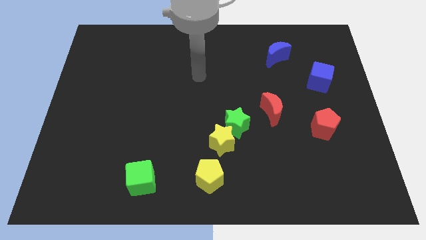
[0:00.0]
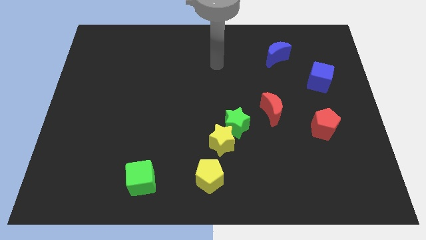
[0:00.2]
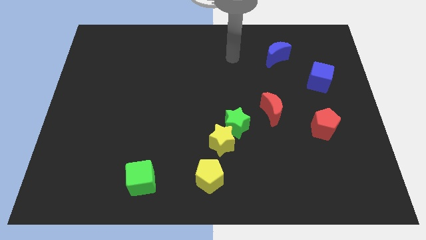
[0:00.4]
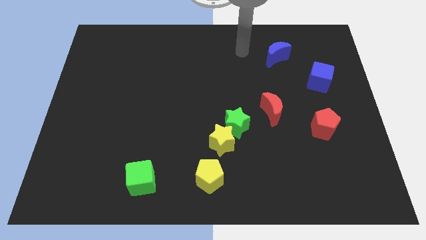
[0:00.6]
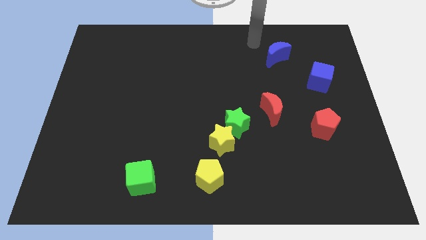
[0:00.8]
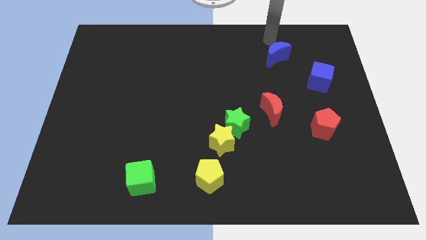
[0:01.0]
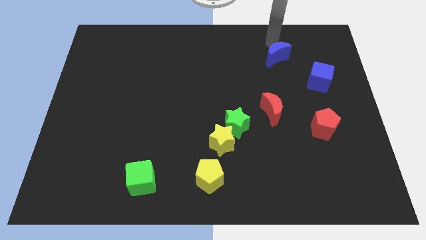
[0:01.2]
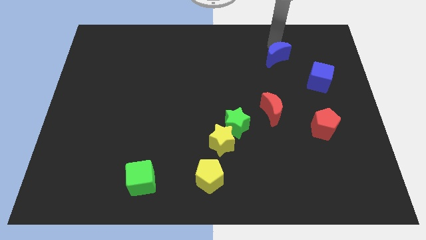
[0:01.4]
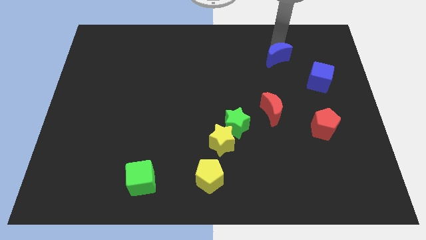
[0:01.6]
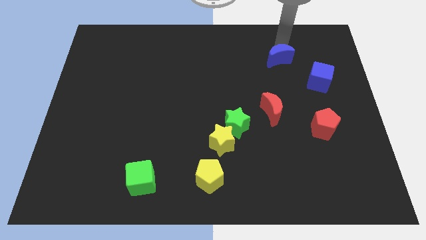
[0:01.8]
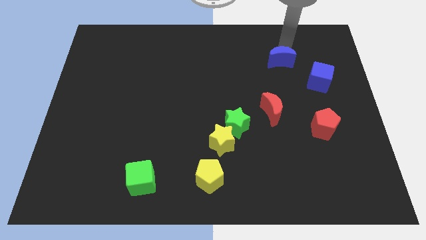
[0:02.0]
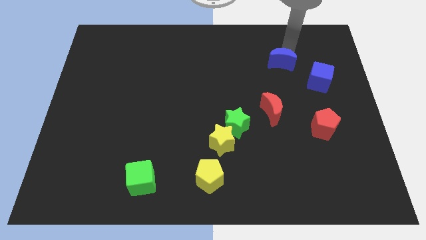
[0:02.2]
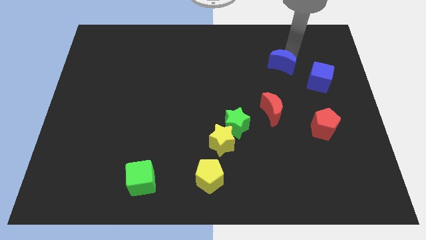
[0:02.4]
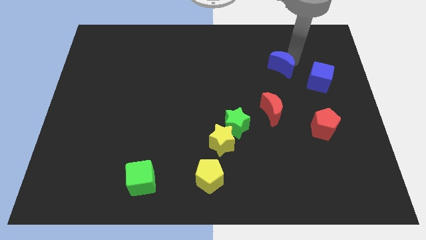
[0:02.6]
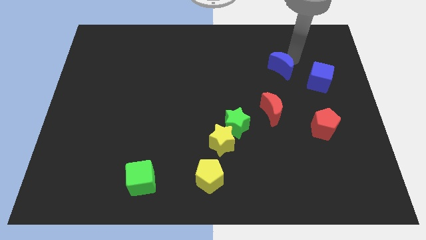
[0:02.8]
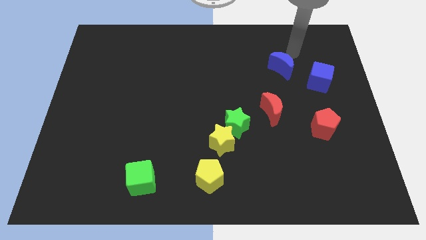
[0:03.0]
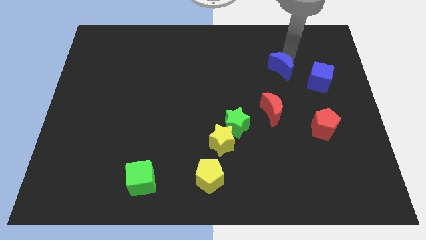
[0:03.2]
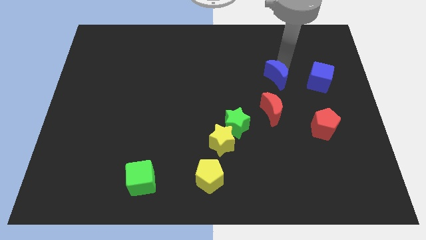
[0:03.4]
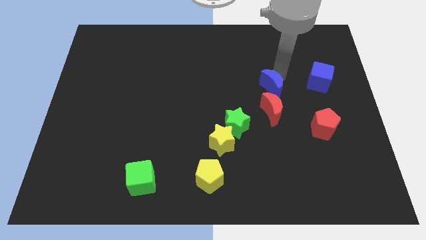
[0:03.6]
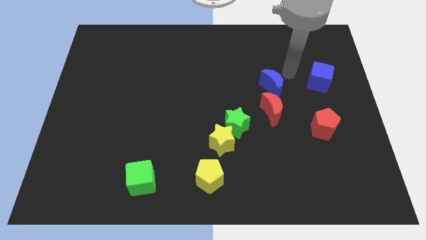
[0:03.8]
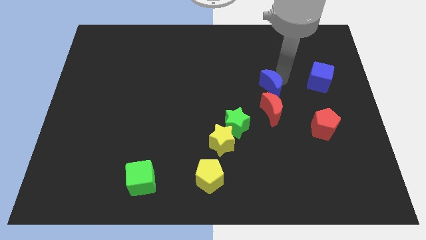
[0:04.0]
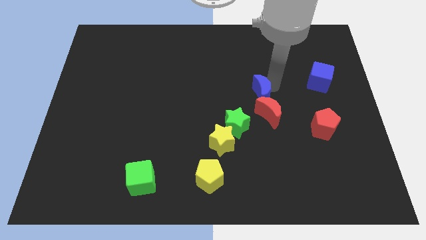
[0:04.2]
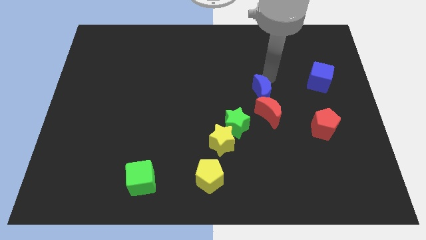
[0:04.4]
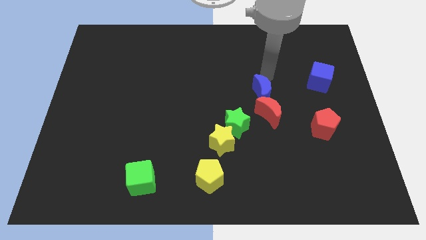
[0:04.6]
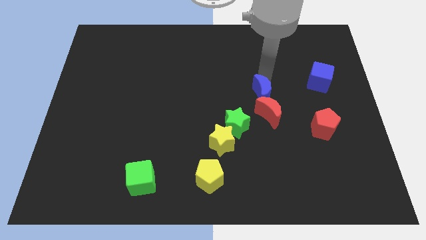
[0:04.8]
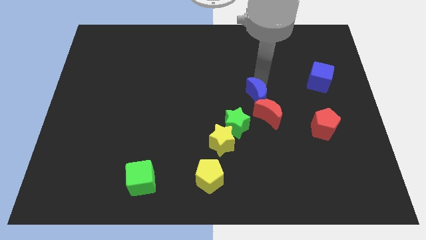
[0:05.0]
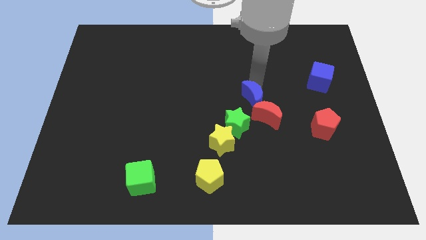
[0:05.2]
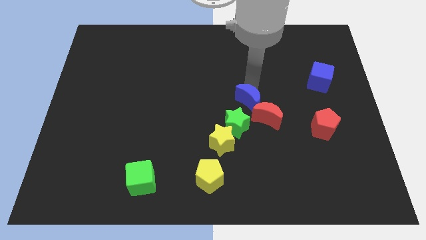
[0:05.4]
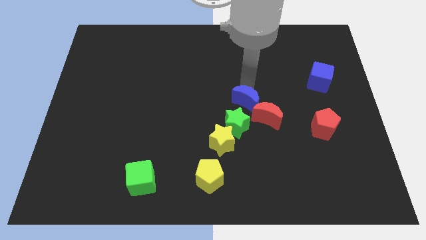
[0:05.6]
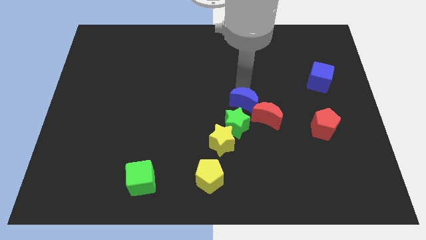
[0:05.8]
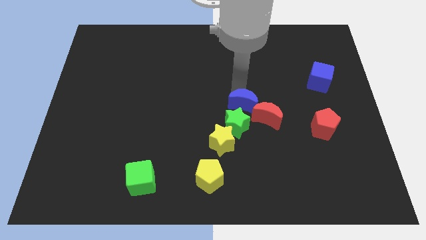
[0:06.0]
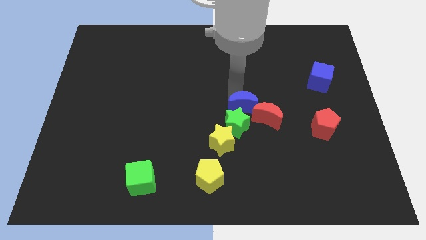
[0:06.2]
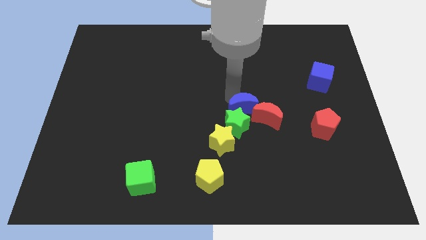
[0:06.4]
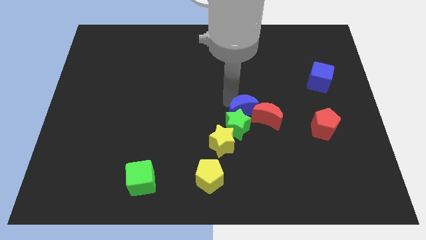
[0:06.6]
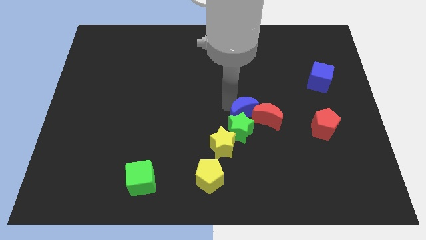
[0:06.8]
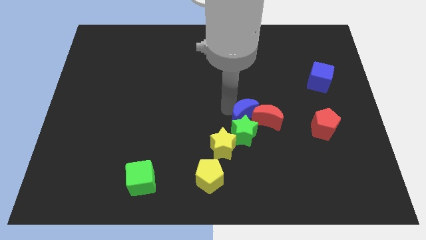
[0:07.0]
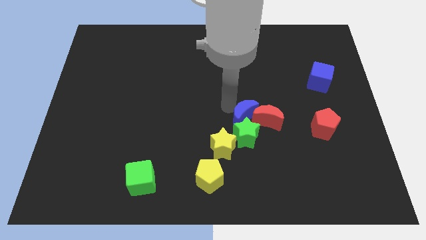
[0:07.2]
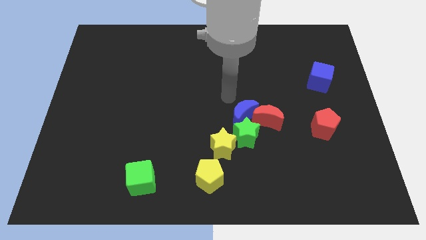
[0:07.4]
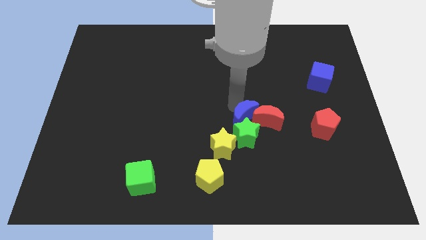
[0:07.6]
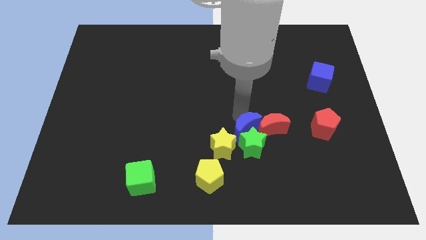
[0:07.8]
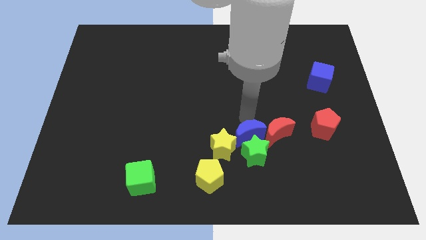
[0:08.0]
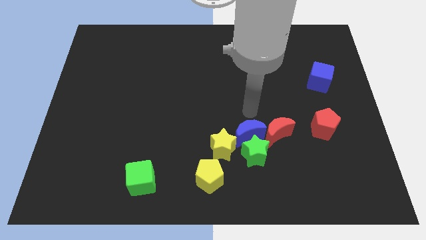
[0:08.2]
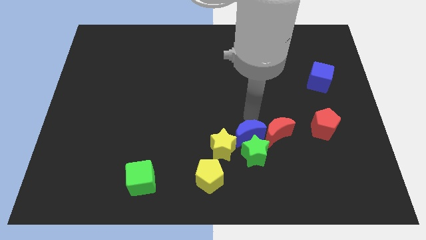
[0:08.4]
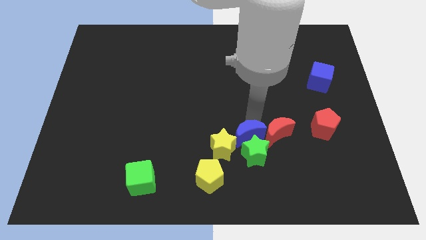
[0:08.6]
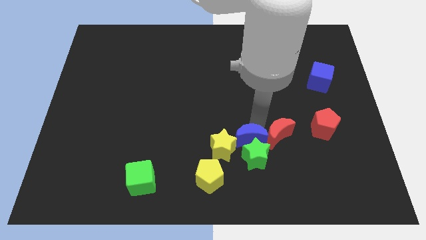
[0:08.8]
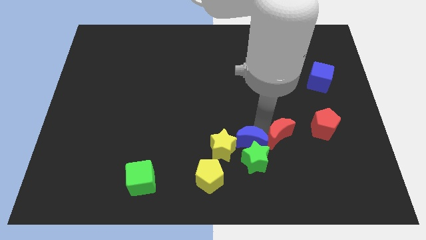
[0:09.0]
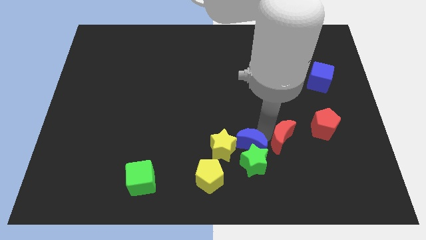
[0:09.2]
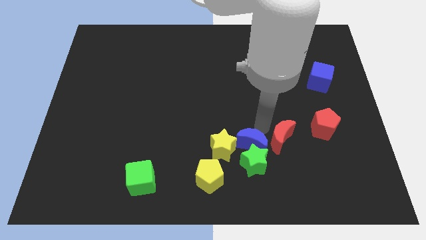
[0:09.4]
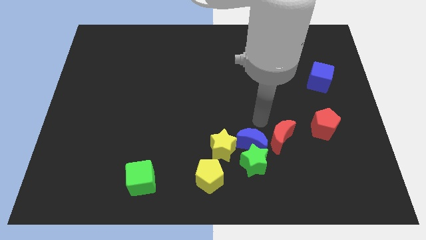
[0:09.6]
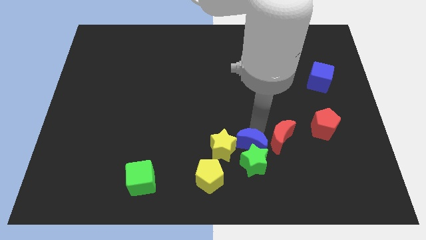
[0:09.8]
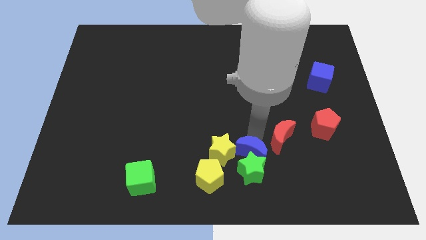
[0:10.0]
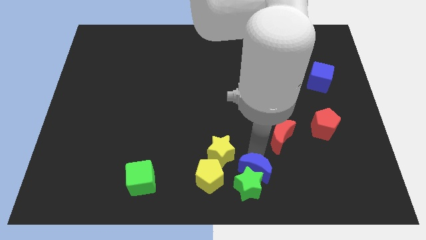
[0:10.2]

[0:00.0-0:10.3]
move the blue moon to the bottom

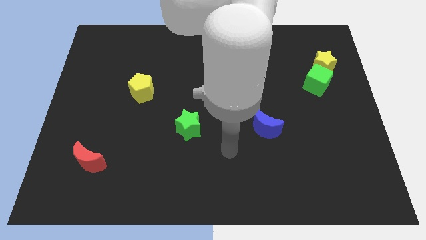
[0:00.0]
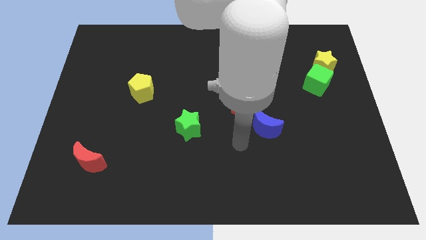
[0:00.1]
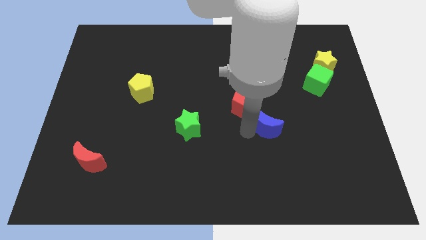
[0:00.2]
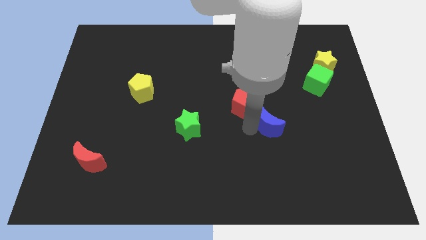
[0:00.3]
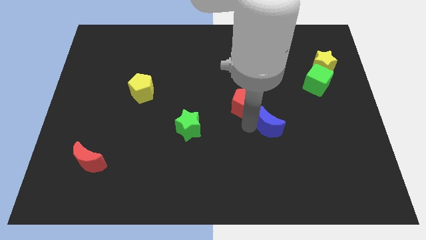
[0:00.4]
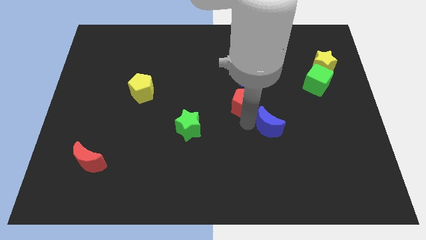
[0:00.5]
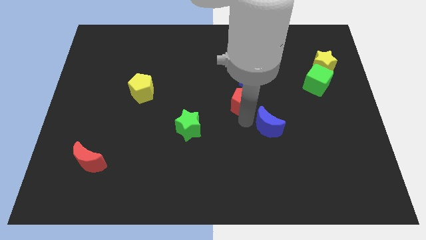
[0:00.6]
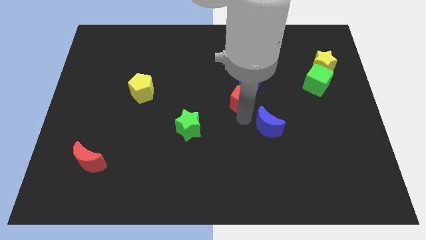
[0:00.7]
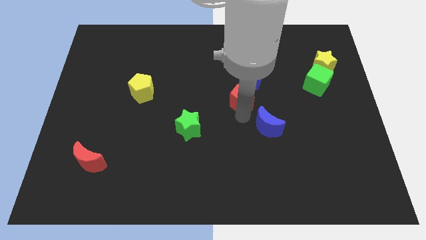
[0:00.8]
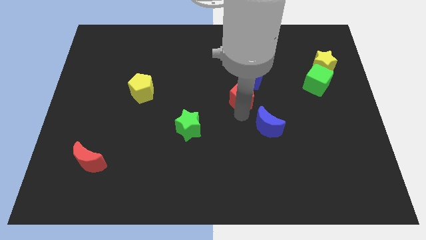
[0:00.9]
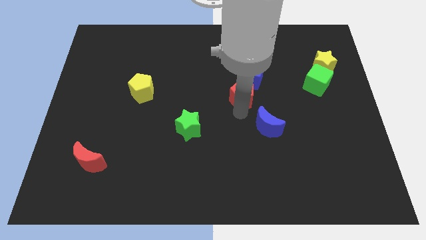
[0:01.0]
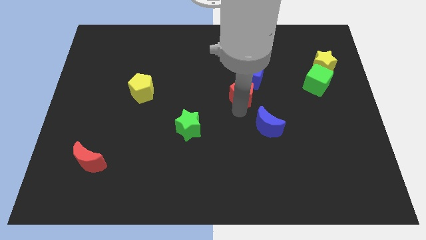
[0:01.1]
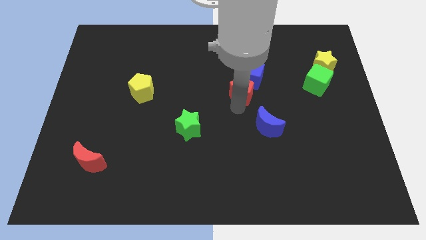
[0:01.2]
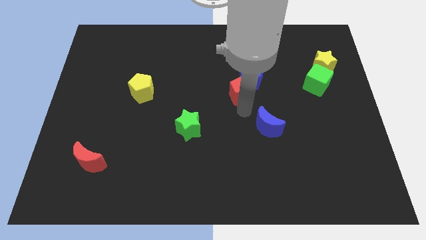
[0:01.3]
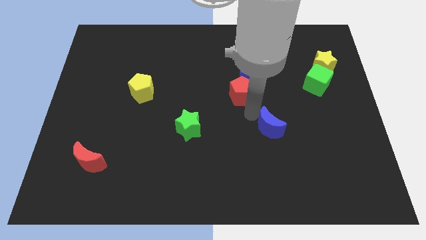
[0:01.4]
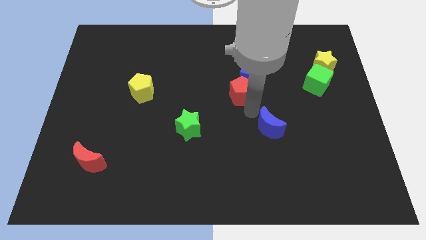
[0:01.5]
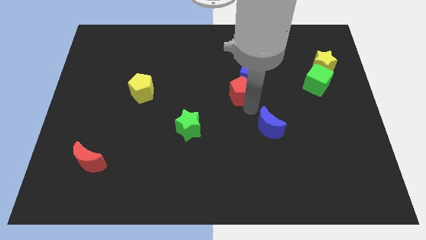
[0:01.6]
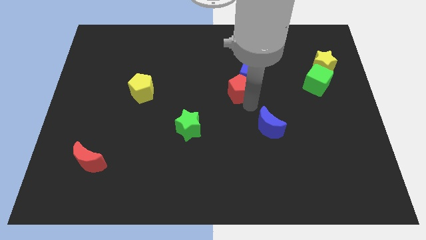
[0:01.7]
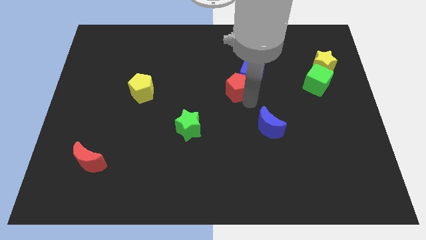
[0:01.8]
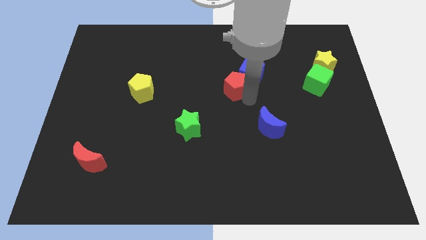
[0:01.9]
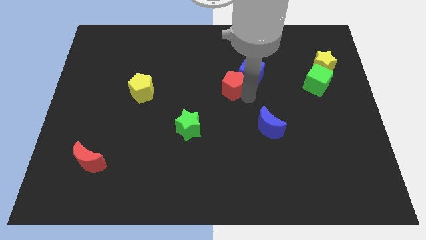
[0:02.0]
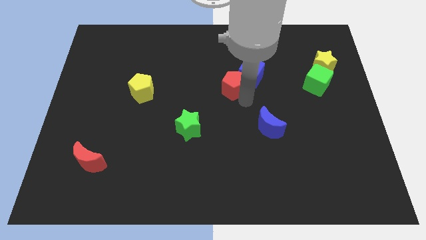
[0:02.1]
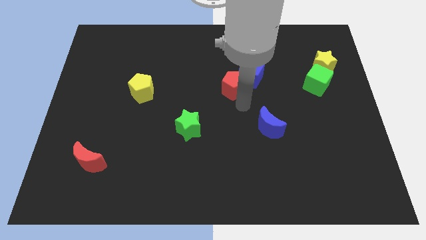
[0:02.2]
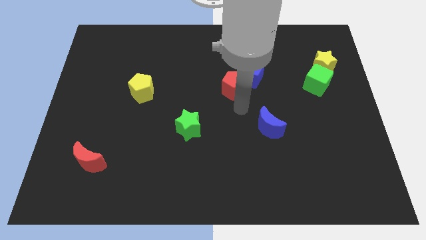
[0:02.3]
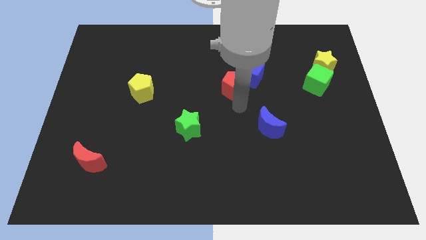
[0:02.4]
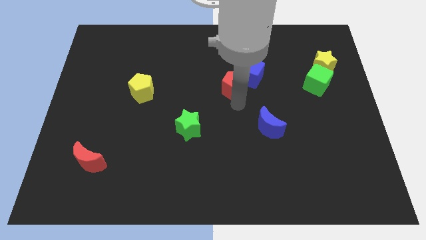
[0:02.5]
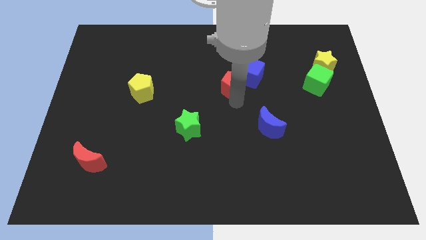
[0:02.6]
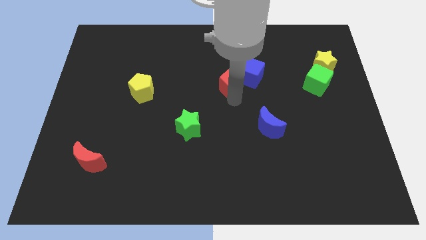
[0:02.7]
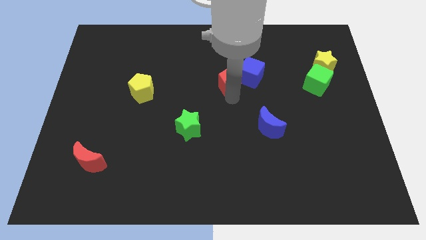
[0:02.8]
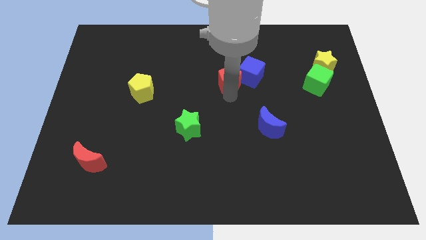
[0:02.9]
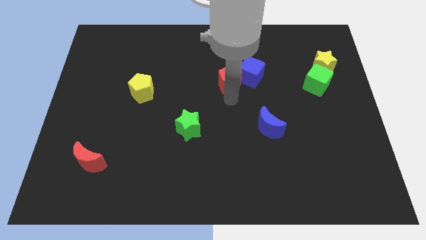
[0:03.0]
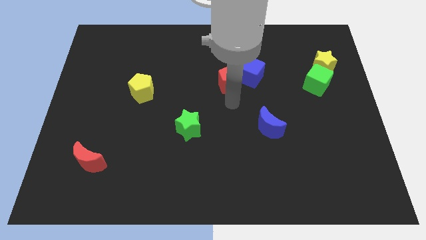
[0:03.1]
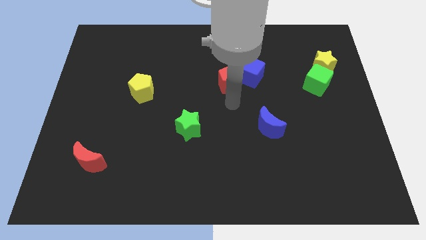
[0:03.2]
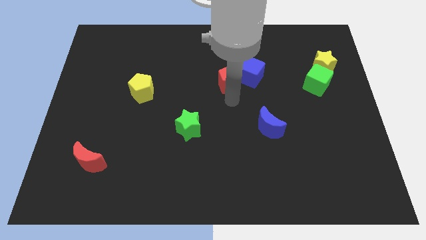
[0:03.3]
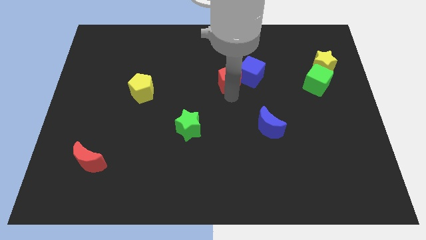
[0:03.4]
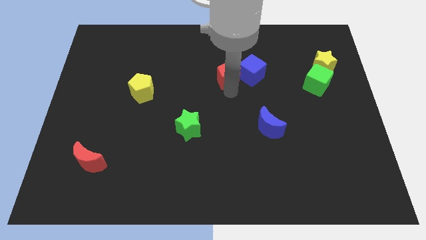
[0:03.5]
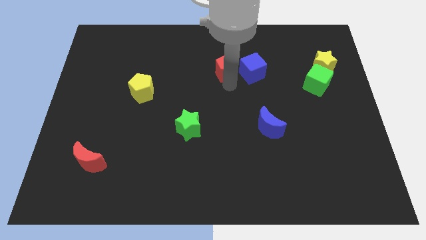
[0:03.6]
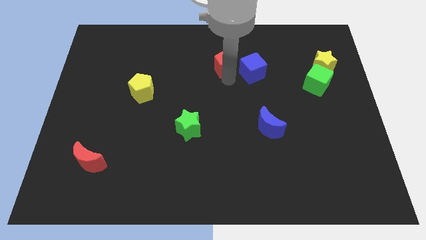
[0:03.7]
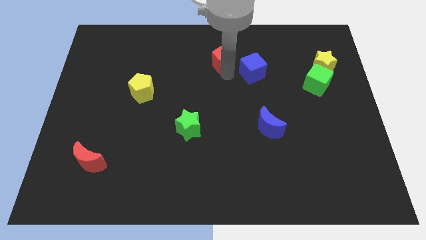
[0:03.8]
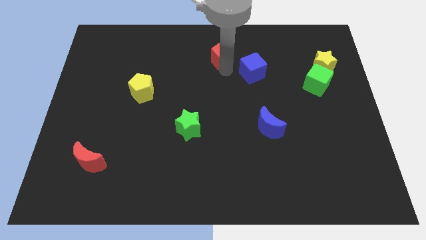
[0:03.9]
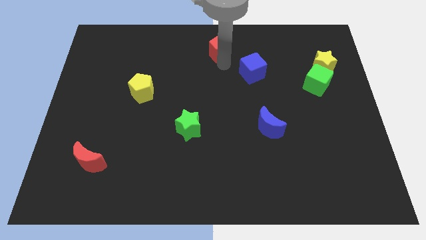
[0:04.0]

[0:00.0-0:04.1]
slide the red pentagon to the towards your base
